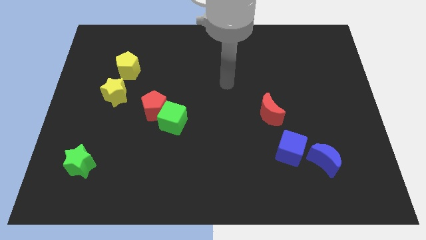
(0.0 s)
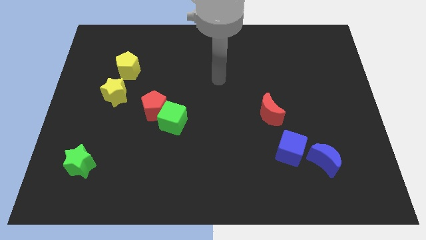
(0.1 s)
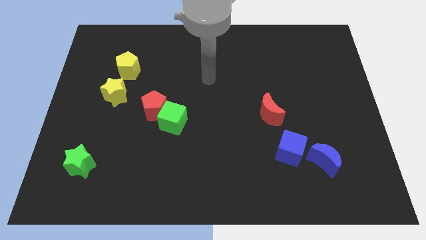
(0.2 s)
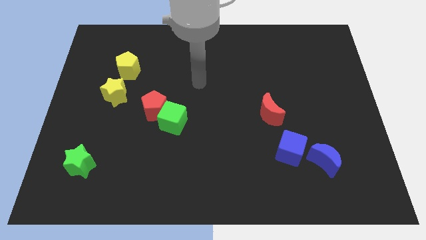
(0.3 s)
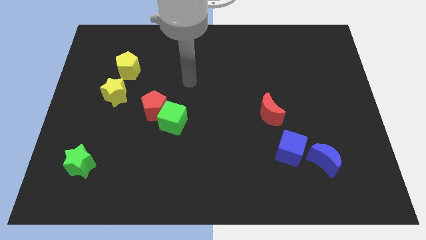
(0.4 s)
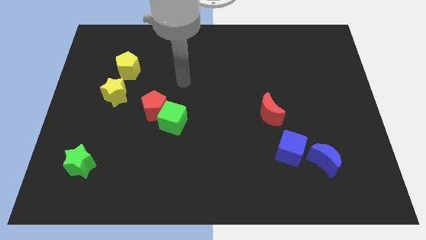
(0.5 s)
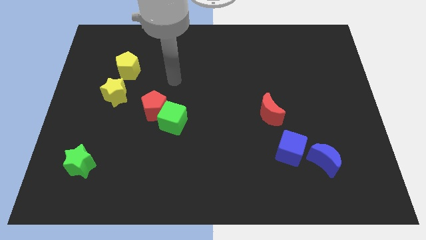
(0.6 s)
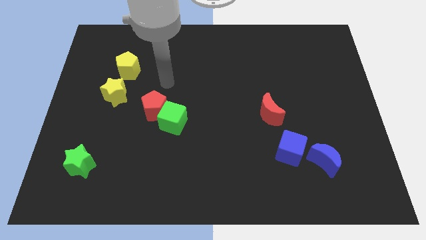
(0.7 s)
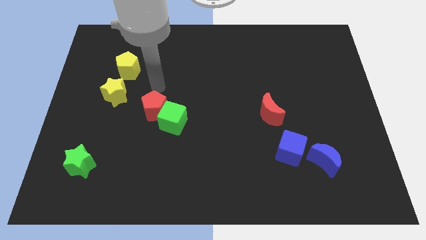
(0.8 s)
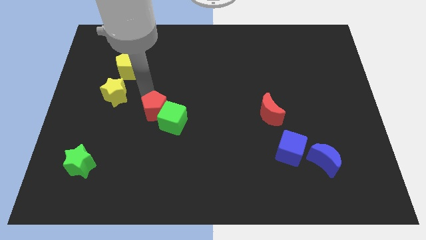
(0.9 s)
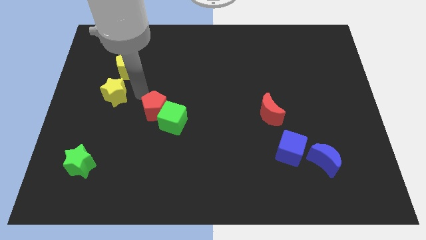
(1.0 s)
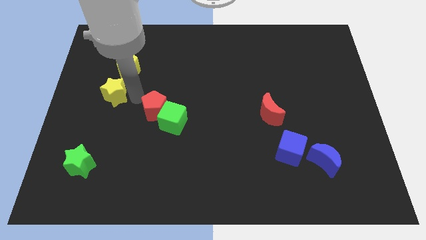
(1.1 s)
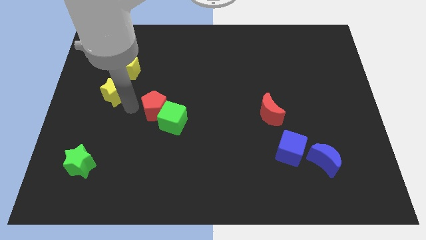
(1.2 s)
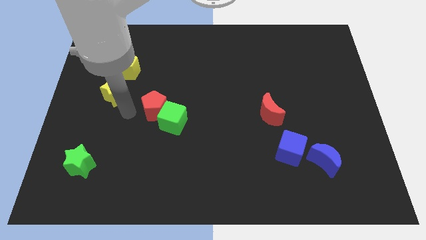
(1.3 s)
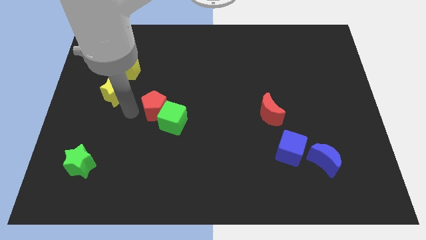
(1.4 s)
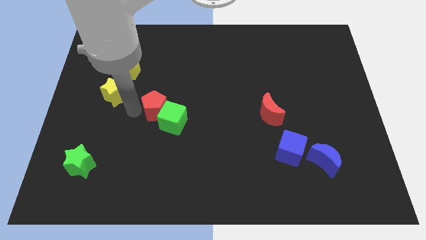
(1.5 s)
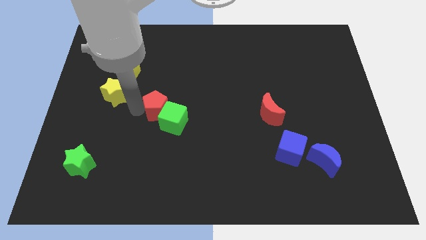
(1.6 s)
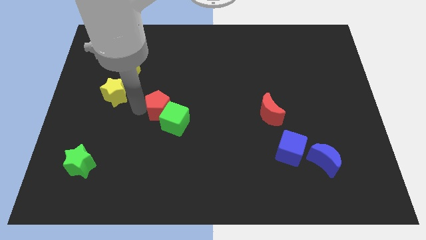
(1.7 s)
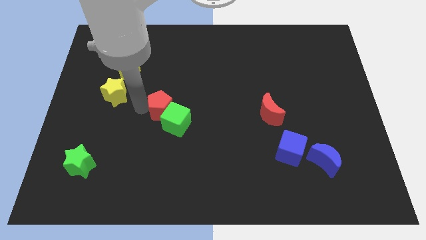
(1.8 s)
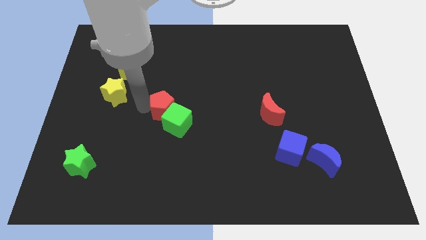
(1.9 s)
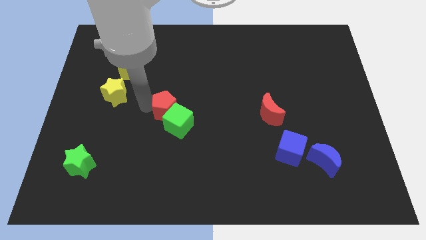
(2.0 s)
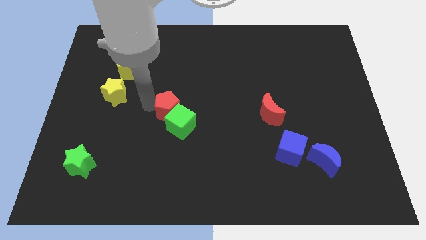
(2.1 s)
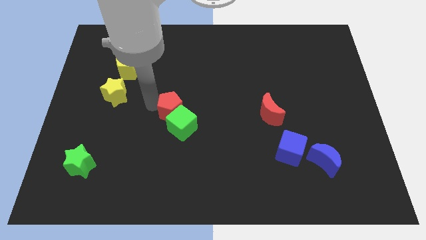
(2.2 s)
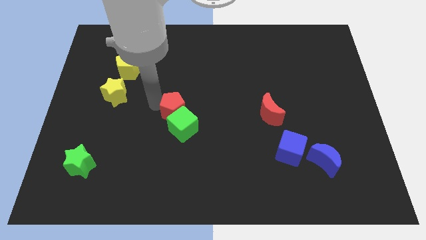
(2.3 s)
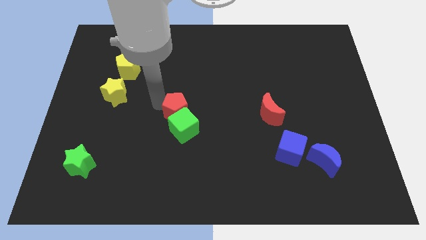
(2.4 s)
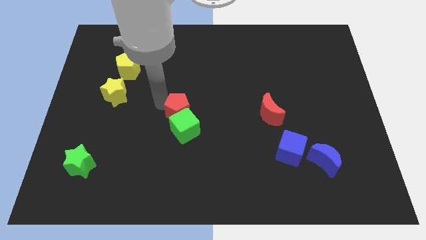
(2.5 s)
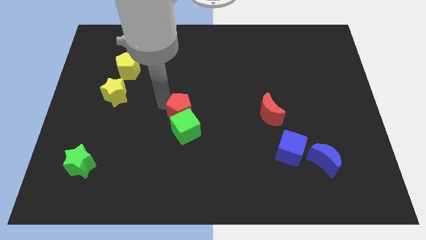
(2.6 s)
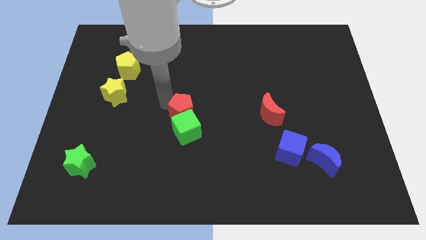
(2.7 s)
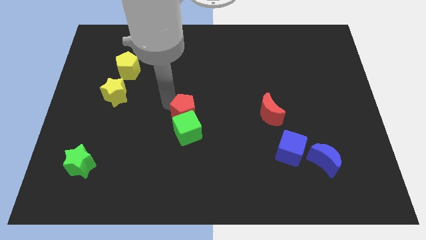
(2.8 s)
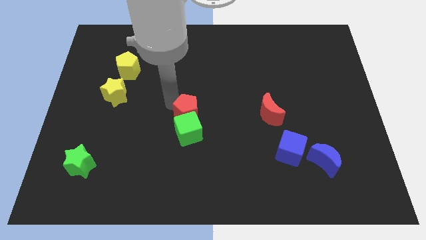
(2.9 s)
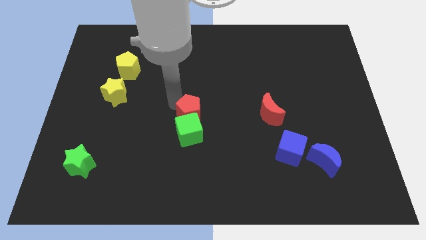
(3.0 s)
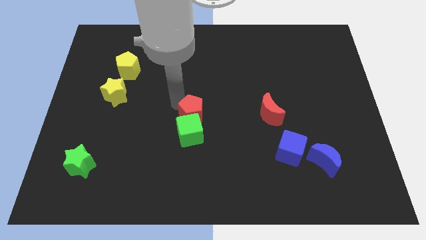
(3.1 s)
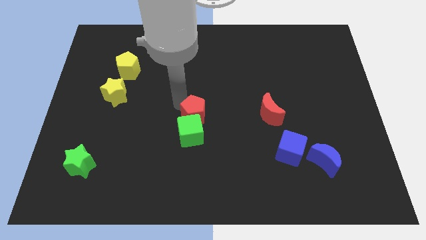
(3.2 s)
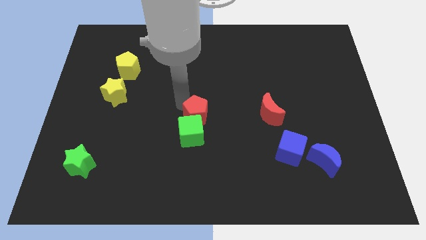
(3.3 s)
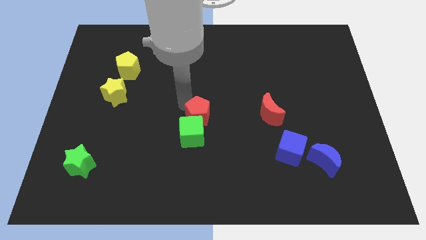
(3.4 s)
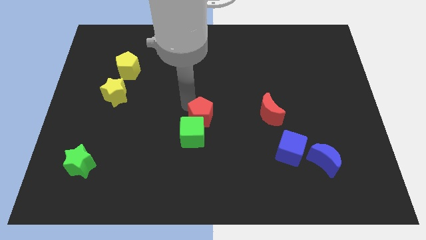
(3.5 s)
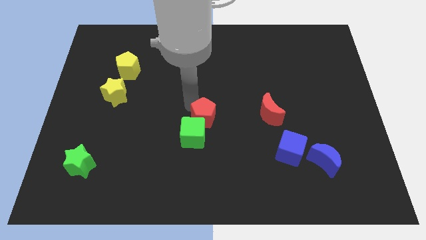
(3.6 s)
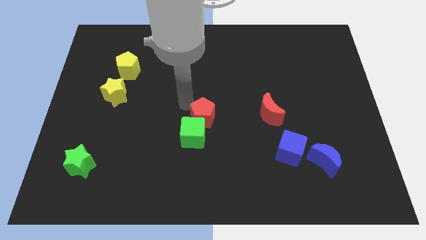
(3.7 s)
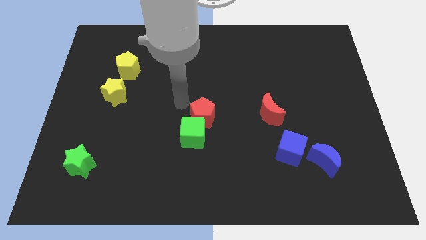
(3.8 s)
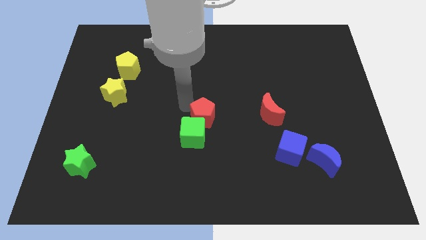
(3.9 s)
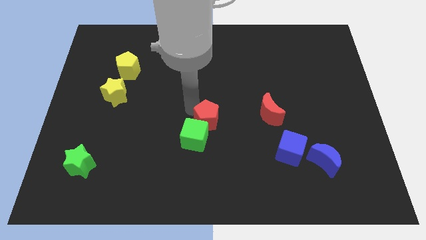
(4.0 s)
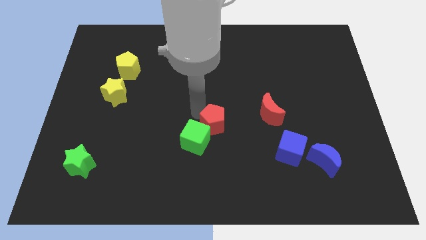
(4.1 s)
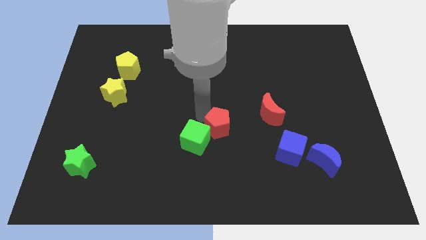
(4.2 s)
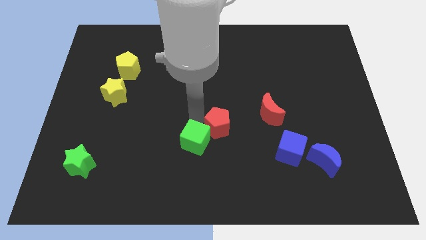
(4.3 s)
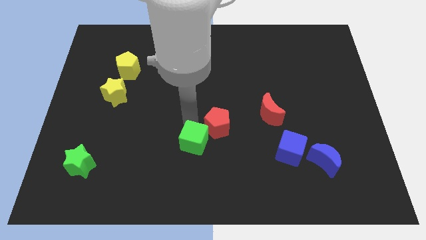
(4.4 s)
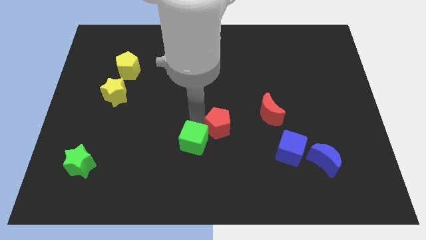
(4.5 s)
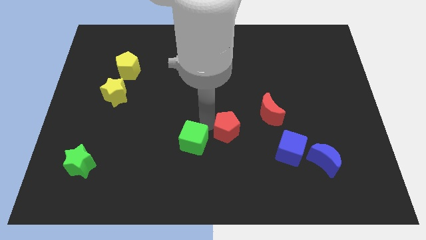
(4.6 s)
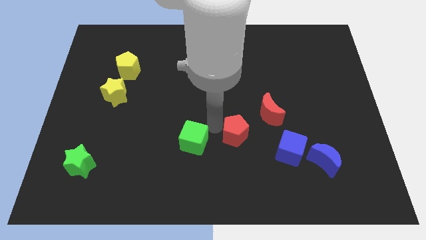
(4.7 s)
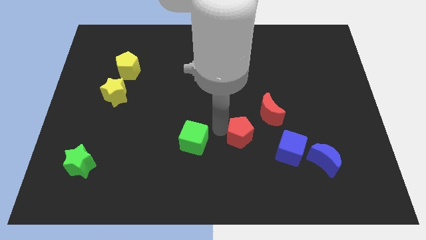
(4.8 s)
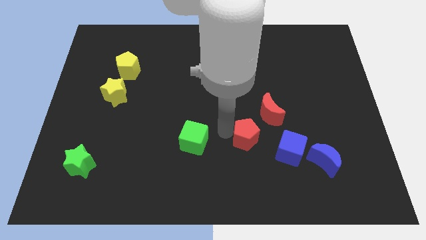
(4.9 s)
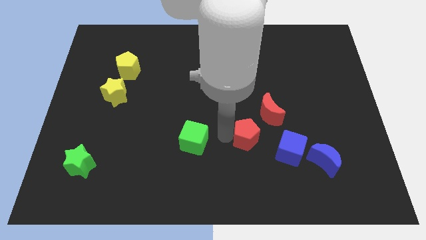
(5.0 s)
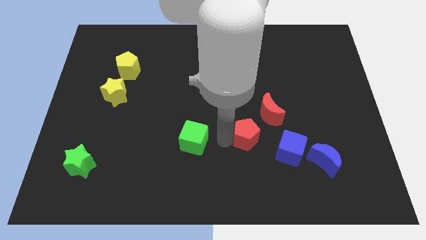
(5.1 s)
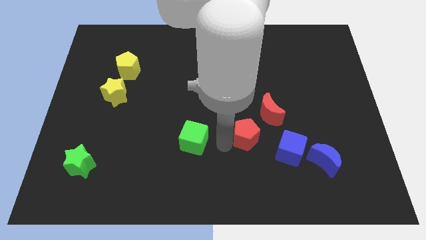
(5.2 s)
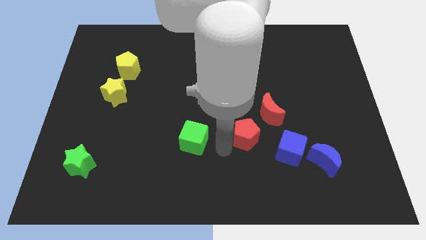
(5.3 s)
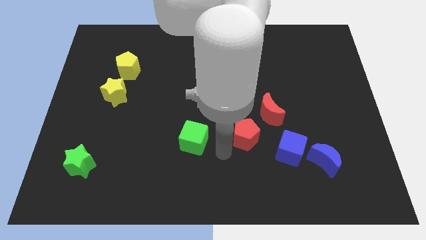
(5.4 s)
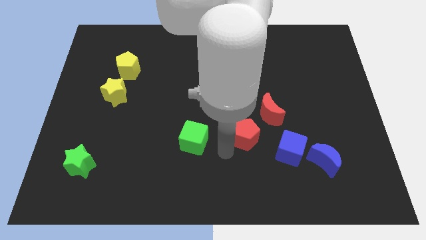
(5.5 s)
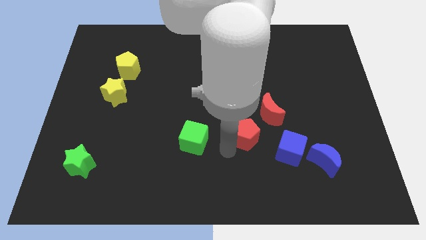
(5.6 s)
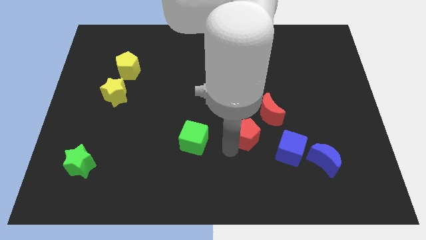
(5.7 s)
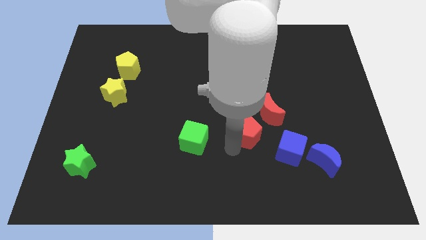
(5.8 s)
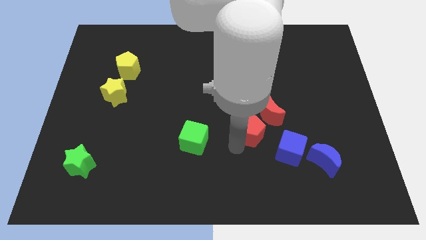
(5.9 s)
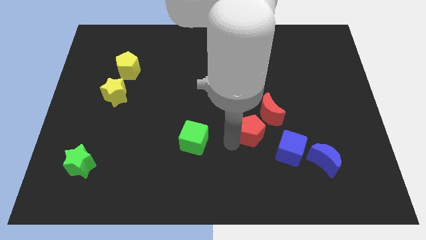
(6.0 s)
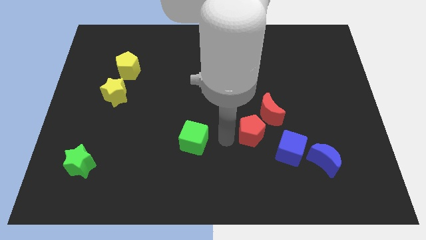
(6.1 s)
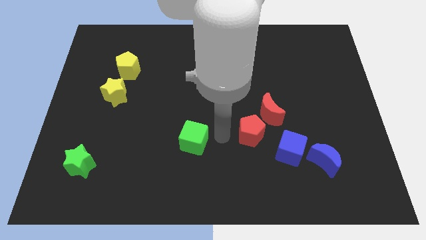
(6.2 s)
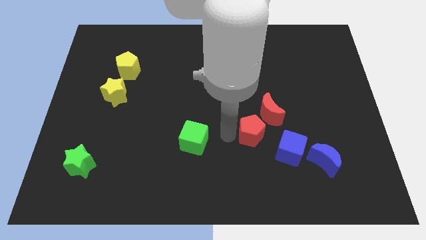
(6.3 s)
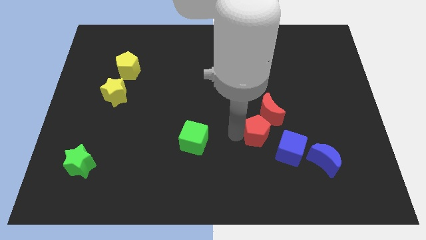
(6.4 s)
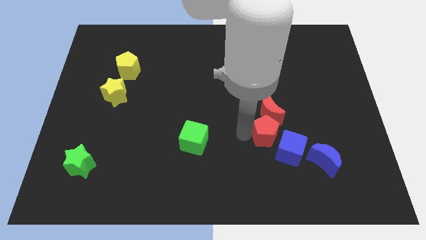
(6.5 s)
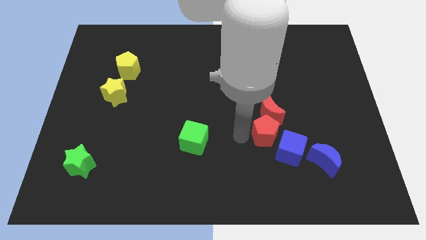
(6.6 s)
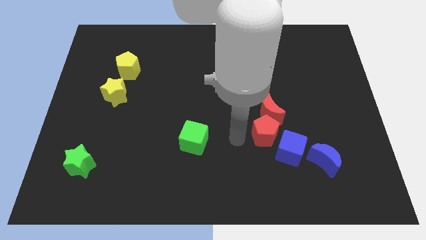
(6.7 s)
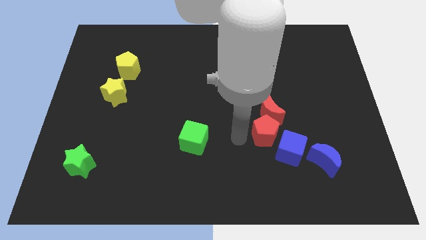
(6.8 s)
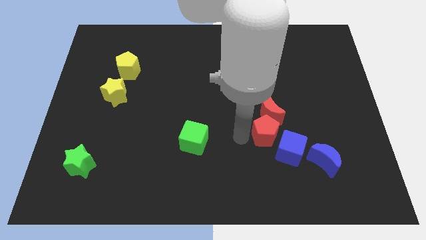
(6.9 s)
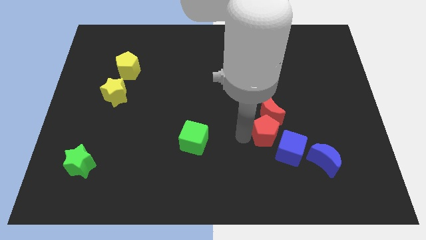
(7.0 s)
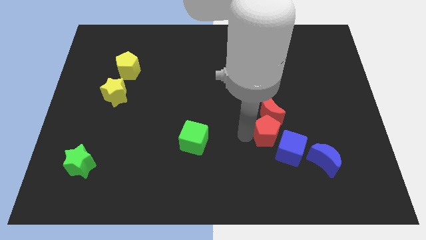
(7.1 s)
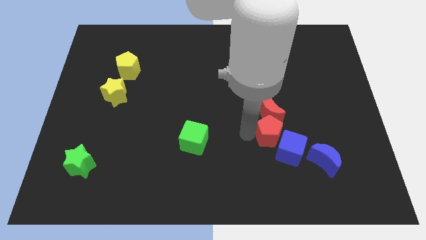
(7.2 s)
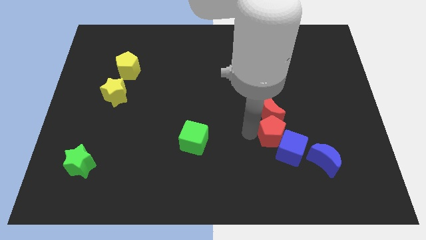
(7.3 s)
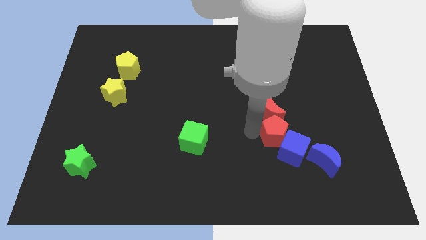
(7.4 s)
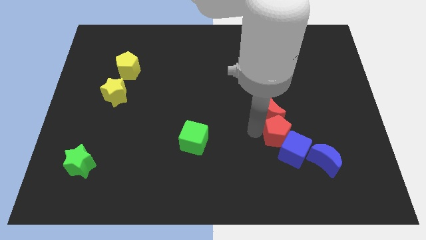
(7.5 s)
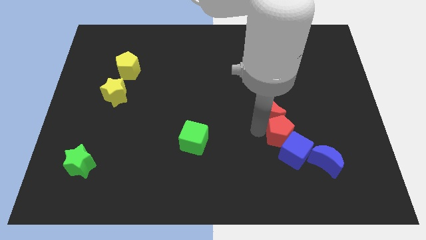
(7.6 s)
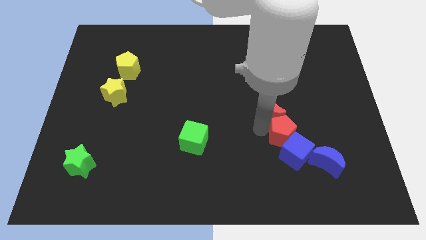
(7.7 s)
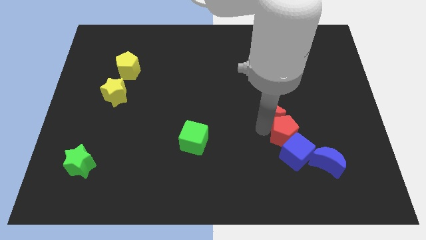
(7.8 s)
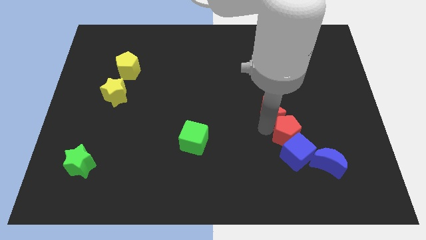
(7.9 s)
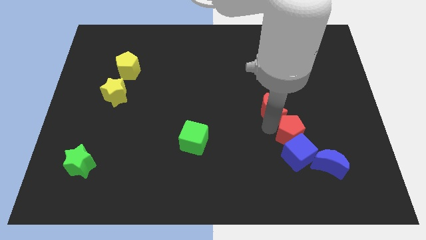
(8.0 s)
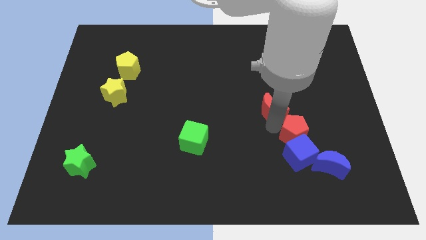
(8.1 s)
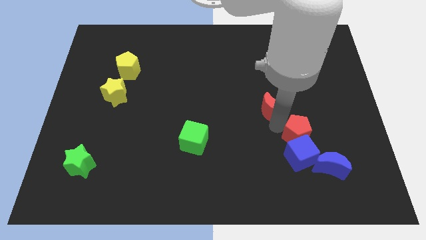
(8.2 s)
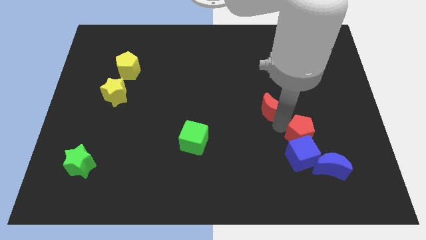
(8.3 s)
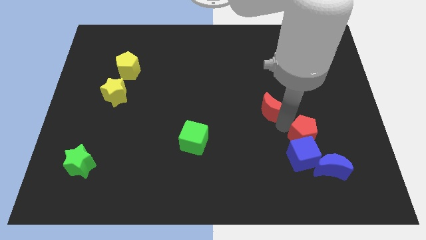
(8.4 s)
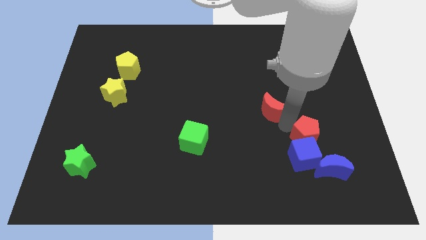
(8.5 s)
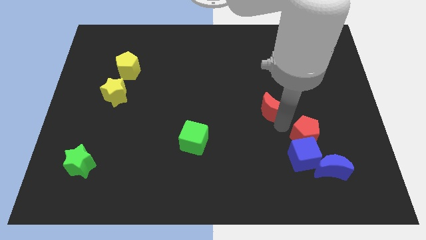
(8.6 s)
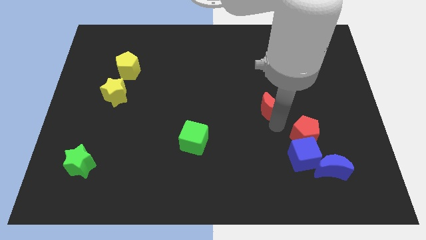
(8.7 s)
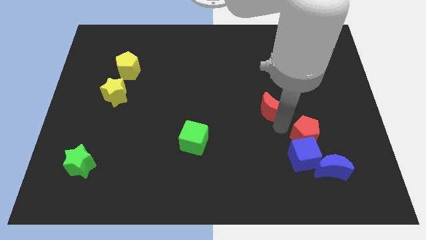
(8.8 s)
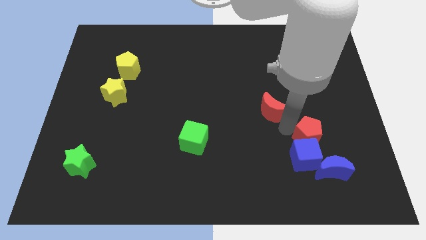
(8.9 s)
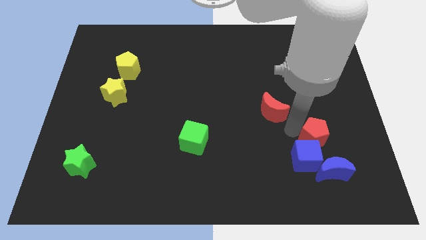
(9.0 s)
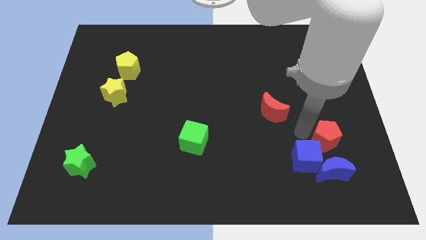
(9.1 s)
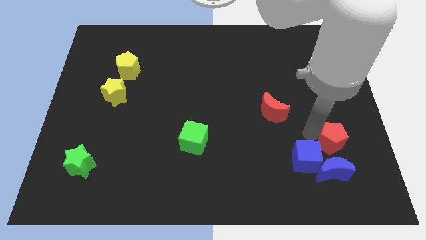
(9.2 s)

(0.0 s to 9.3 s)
put the red pentagon to the top right side of the blue moon
